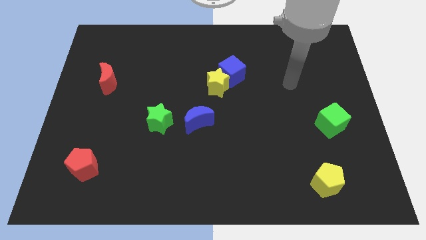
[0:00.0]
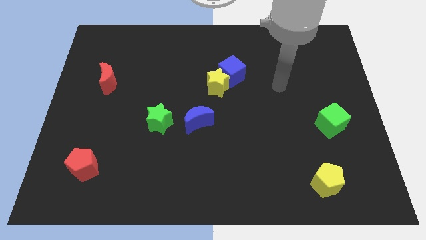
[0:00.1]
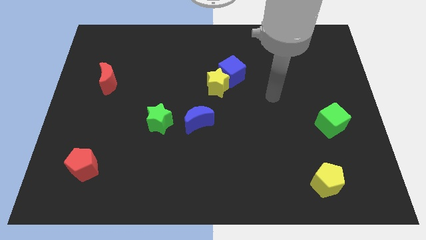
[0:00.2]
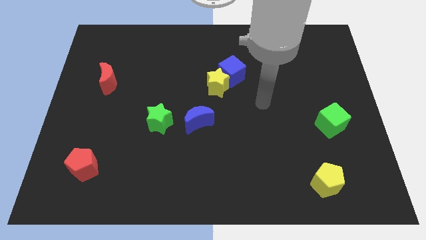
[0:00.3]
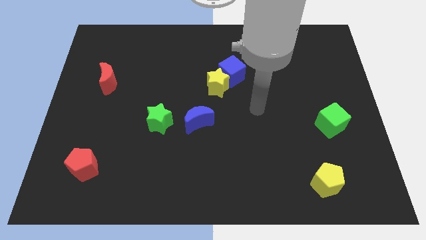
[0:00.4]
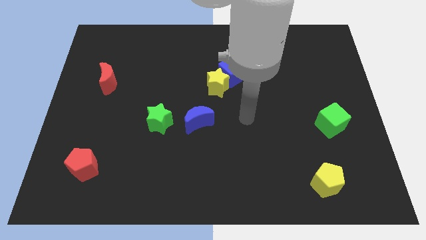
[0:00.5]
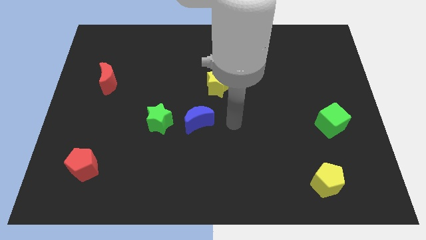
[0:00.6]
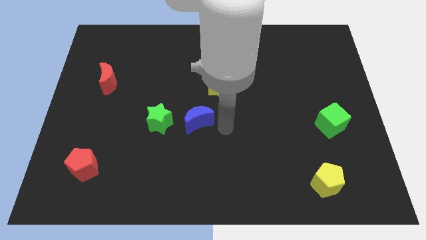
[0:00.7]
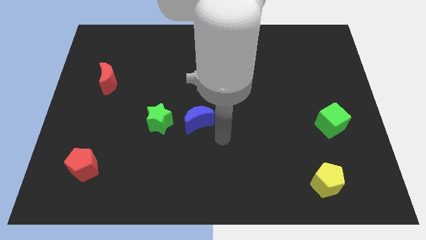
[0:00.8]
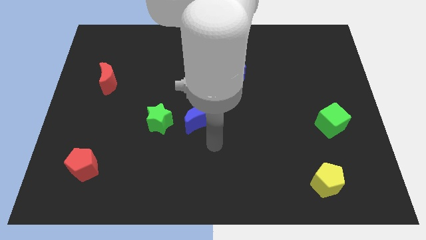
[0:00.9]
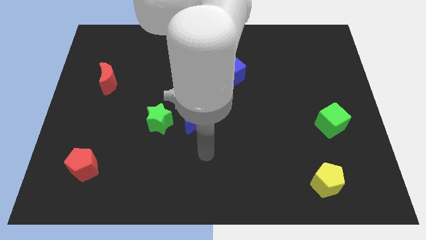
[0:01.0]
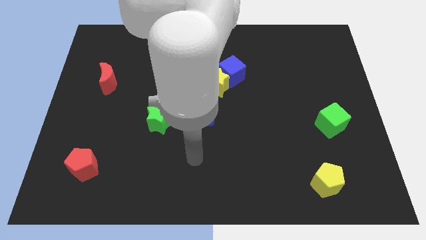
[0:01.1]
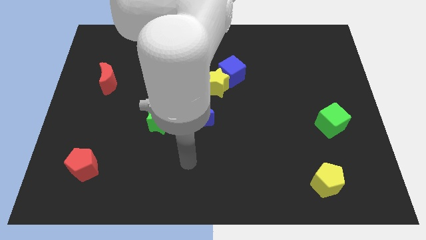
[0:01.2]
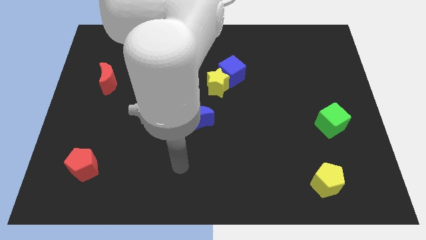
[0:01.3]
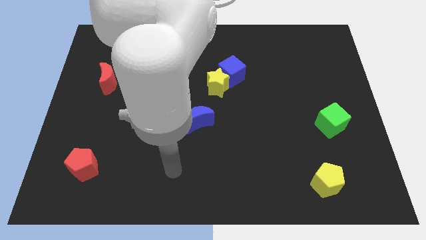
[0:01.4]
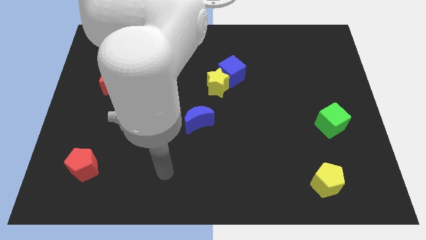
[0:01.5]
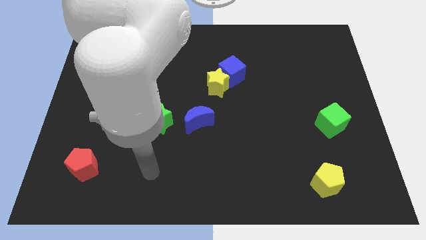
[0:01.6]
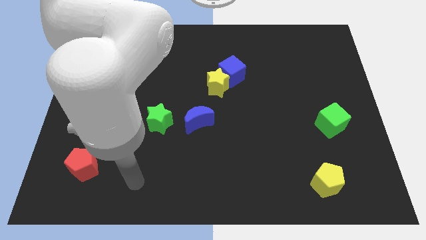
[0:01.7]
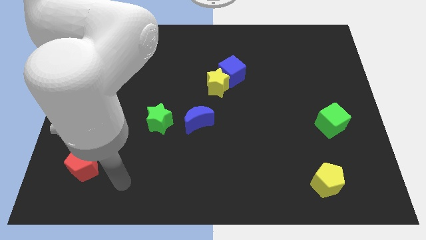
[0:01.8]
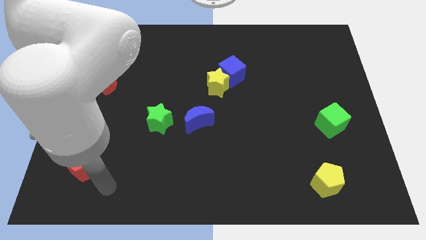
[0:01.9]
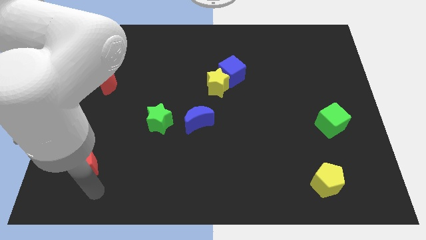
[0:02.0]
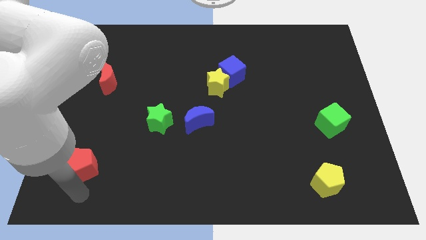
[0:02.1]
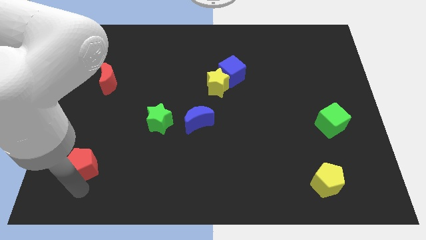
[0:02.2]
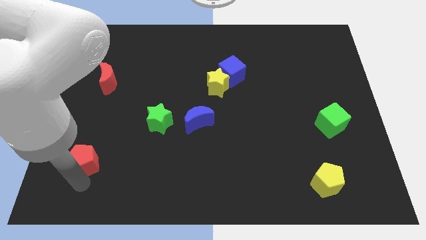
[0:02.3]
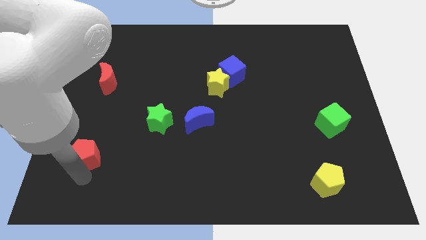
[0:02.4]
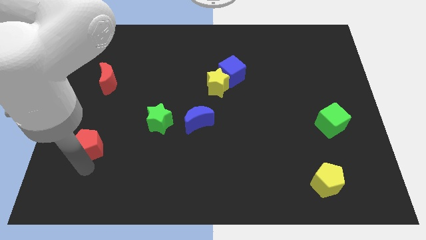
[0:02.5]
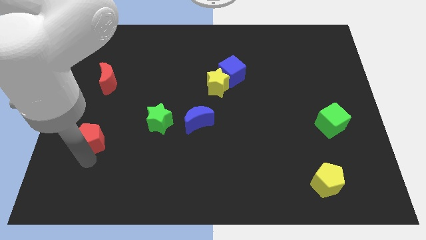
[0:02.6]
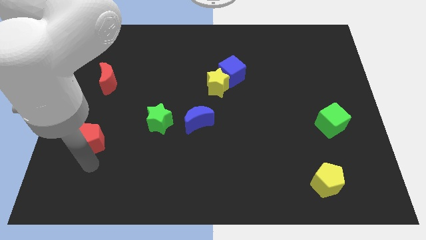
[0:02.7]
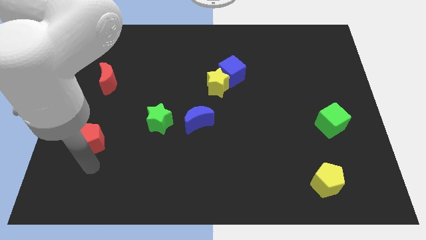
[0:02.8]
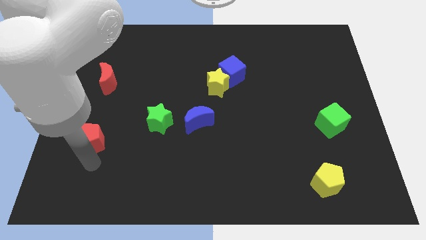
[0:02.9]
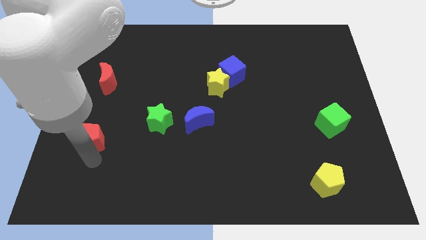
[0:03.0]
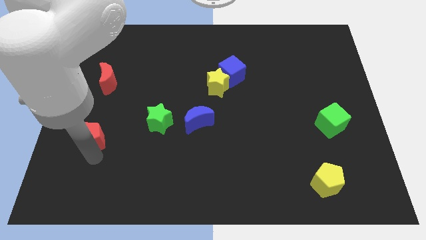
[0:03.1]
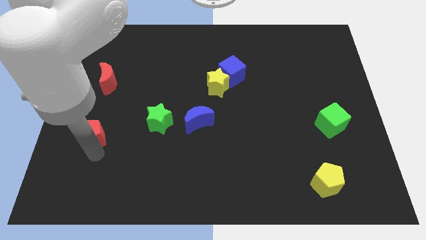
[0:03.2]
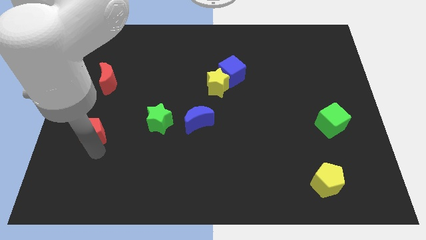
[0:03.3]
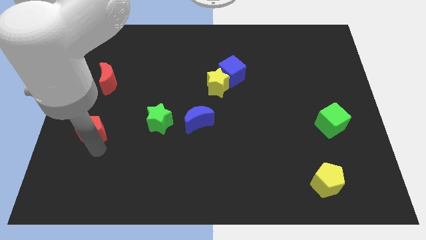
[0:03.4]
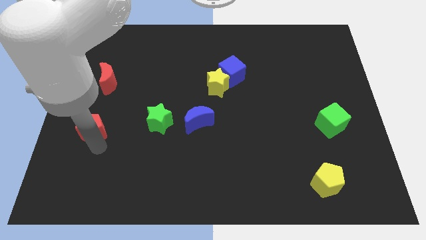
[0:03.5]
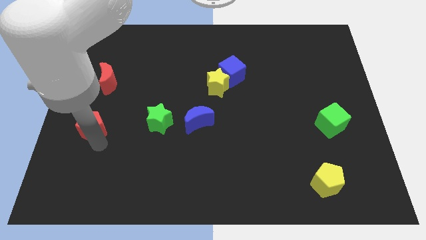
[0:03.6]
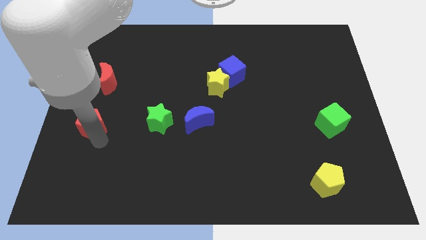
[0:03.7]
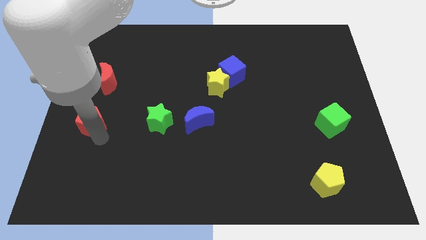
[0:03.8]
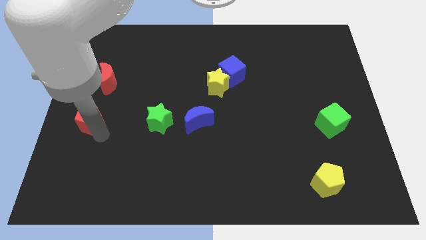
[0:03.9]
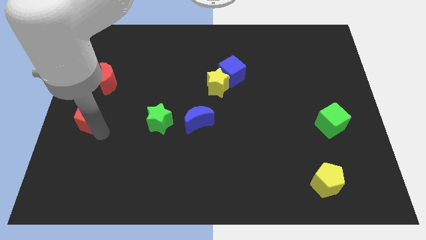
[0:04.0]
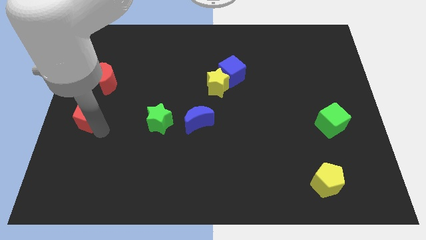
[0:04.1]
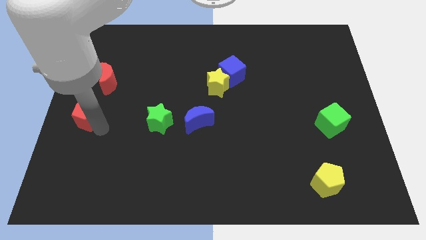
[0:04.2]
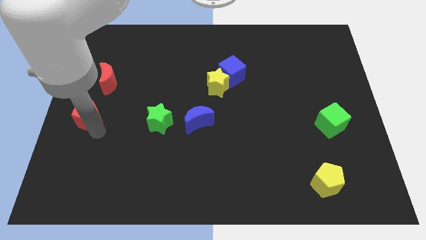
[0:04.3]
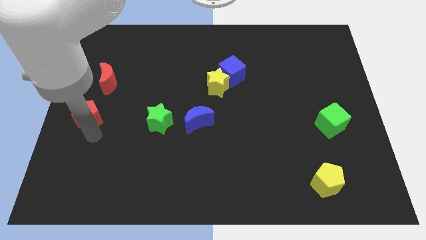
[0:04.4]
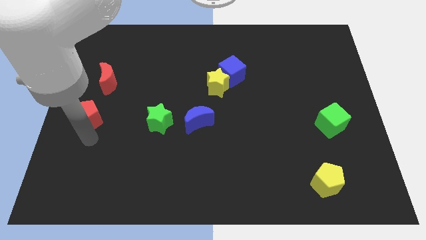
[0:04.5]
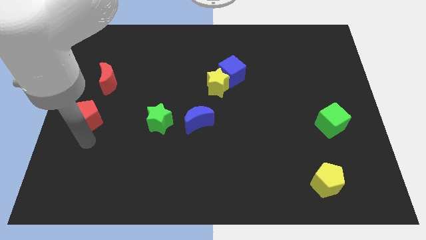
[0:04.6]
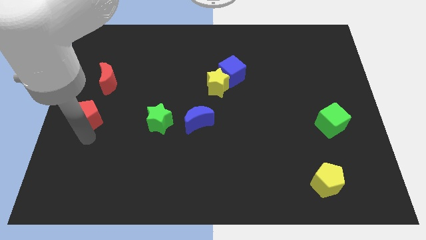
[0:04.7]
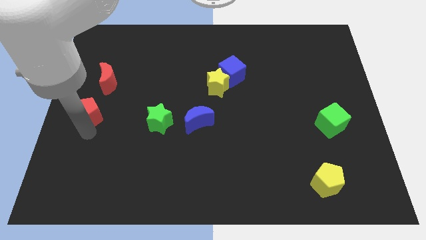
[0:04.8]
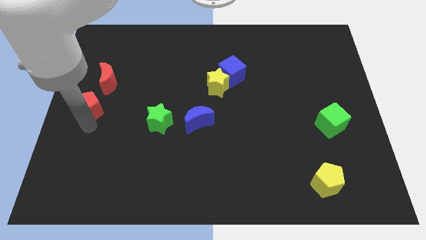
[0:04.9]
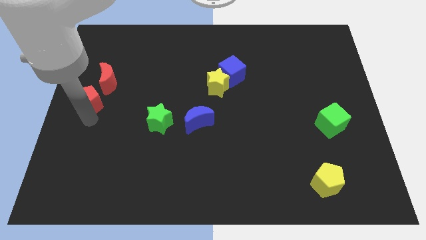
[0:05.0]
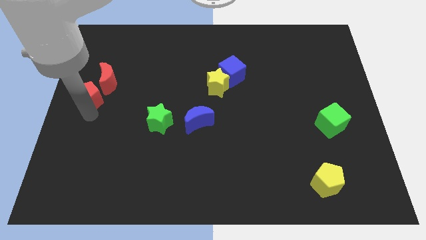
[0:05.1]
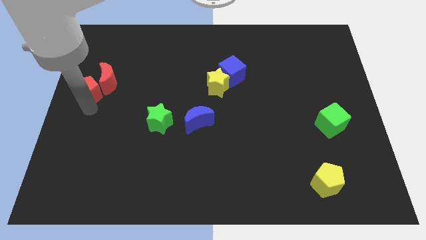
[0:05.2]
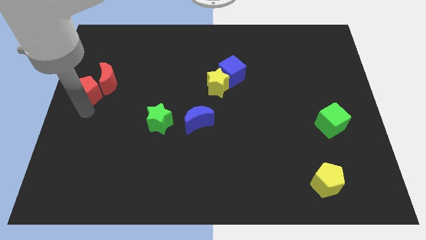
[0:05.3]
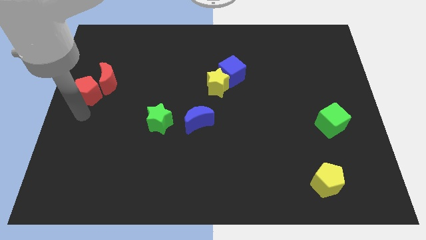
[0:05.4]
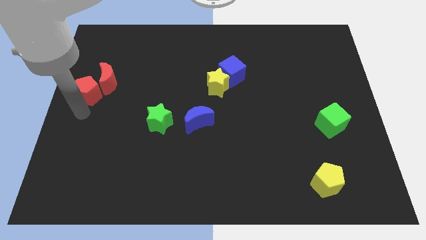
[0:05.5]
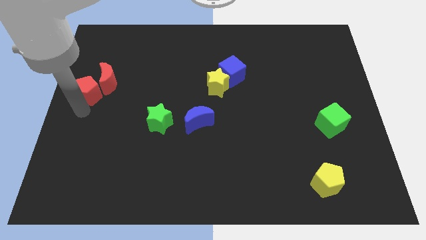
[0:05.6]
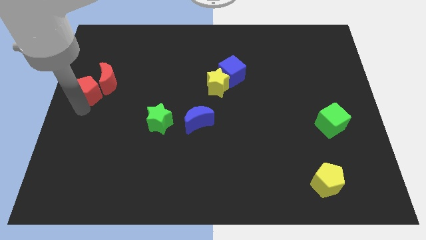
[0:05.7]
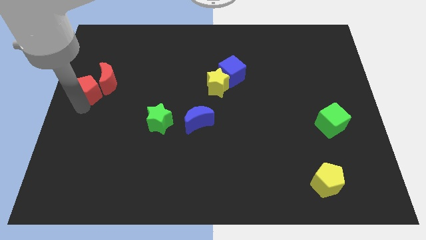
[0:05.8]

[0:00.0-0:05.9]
move the red pentagon upwards

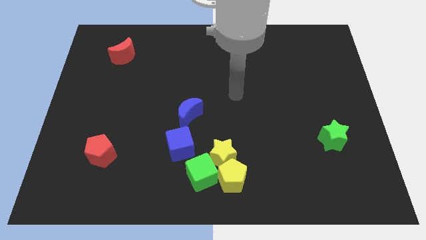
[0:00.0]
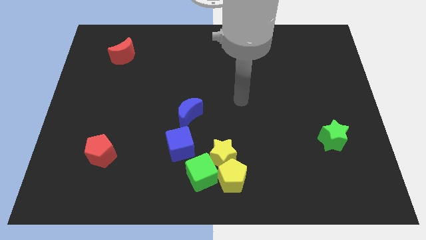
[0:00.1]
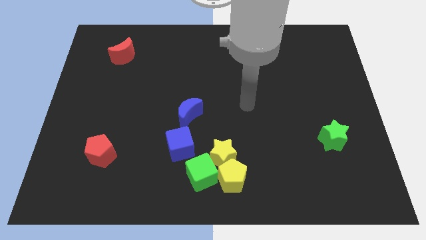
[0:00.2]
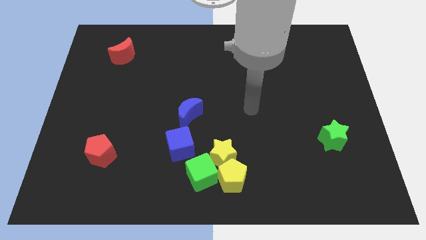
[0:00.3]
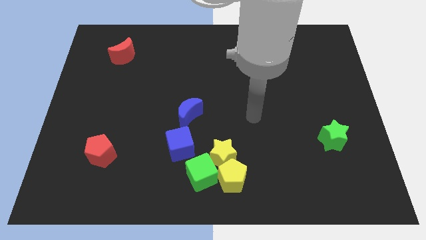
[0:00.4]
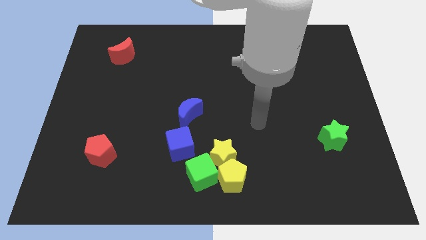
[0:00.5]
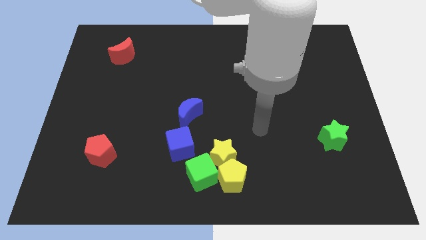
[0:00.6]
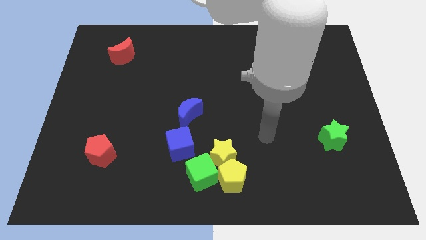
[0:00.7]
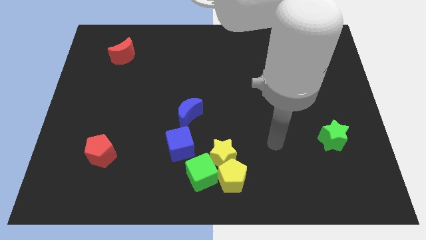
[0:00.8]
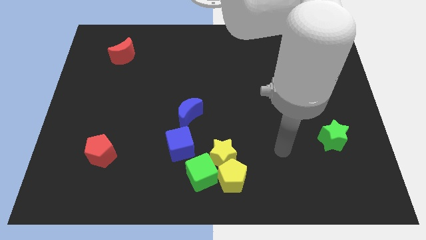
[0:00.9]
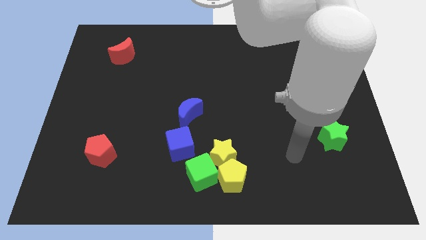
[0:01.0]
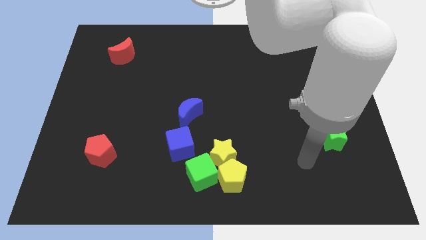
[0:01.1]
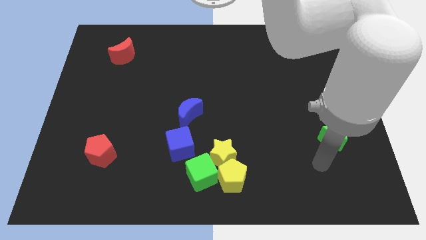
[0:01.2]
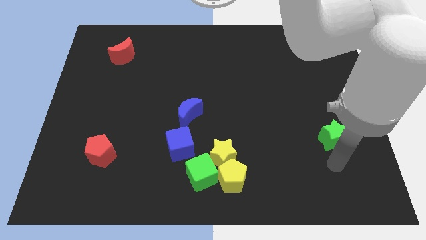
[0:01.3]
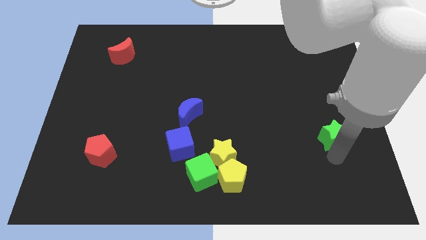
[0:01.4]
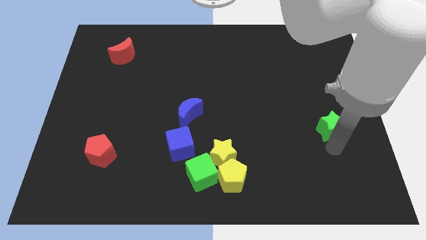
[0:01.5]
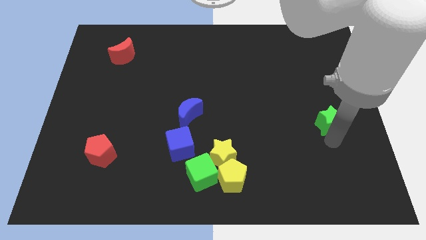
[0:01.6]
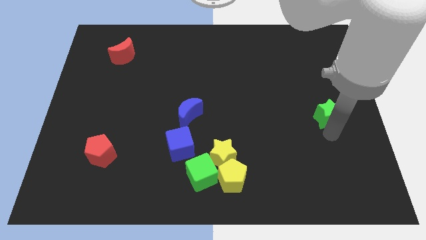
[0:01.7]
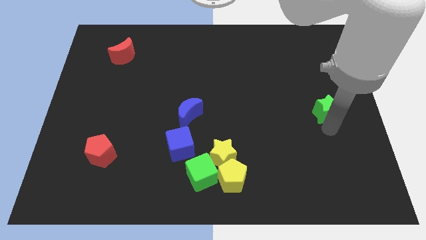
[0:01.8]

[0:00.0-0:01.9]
slide the green star a little up

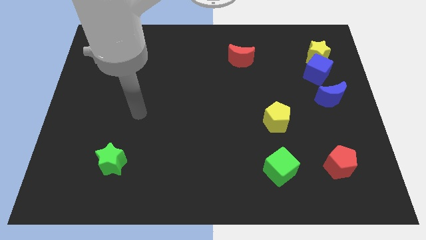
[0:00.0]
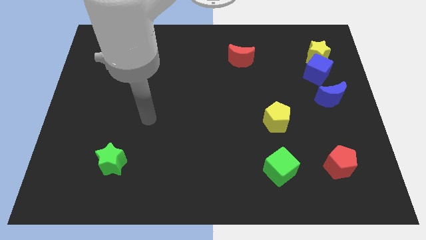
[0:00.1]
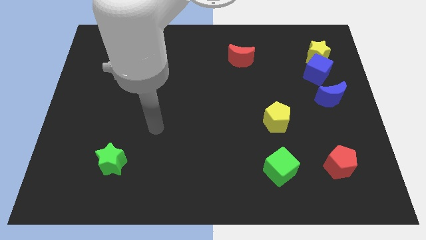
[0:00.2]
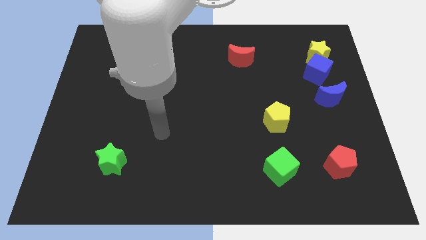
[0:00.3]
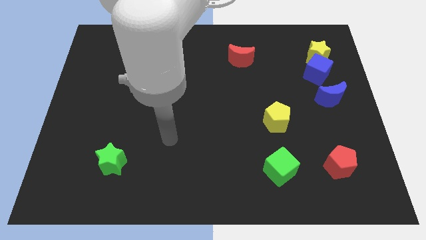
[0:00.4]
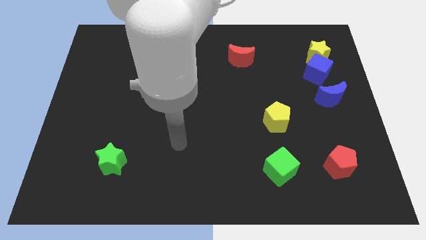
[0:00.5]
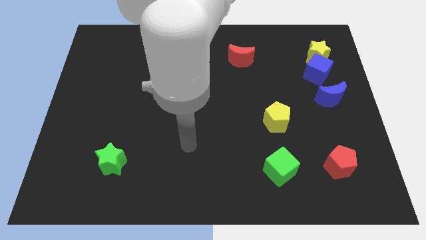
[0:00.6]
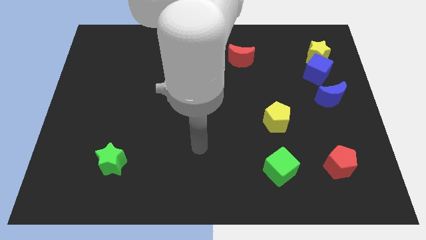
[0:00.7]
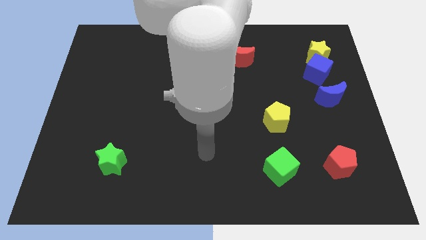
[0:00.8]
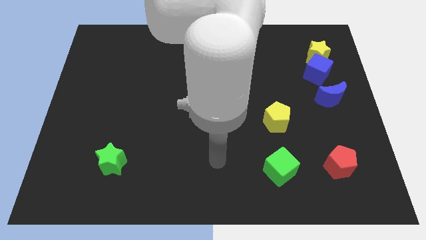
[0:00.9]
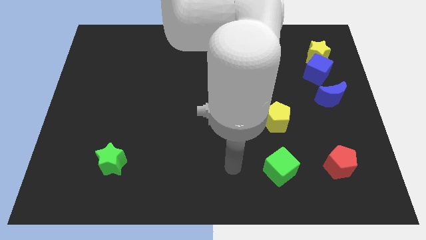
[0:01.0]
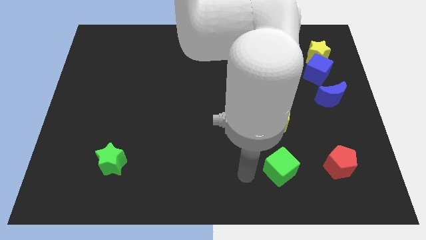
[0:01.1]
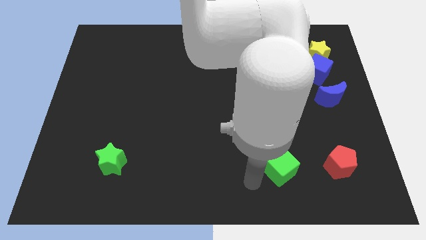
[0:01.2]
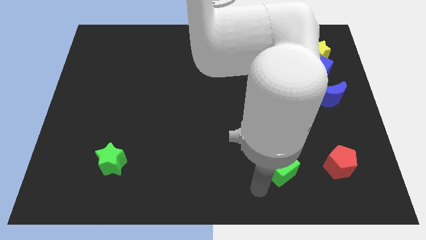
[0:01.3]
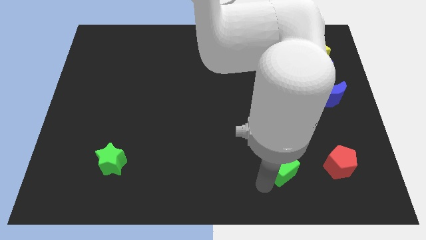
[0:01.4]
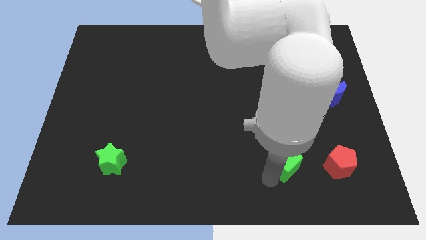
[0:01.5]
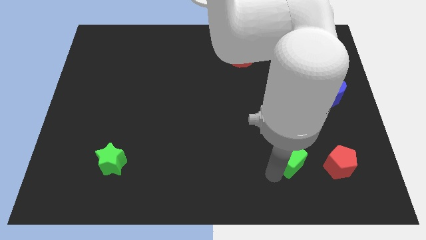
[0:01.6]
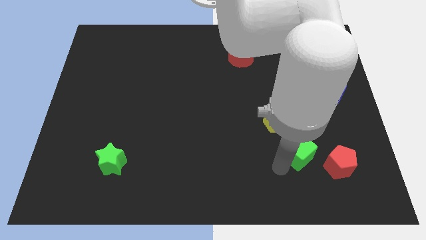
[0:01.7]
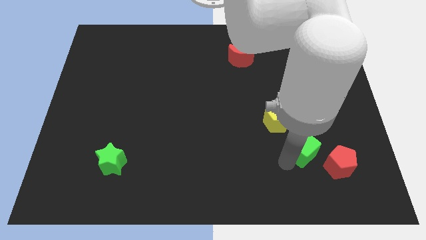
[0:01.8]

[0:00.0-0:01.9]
slightly push the green cube upwards and to the right diagonally
